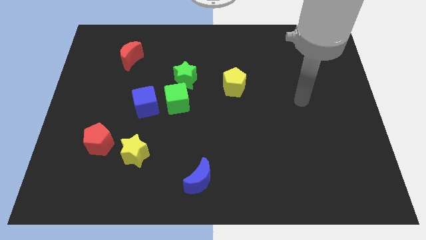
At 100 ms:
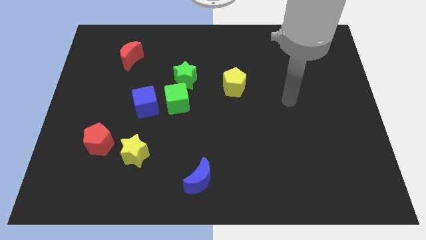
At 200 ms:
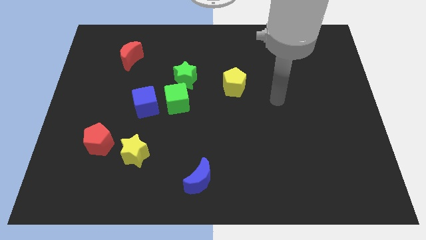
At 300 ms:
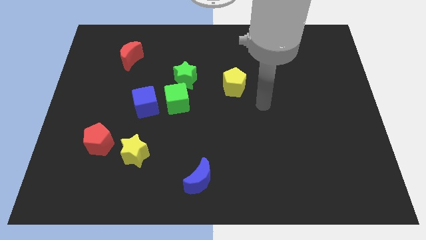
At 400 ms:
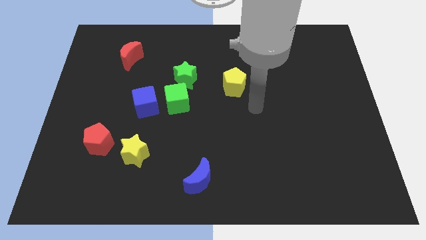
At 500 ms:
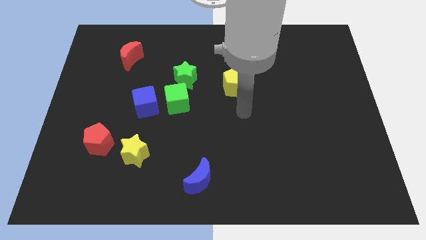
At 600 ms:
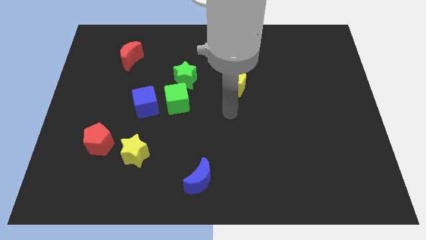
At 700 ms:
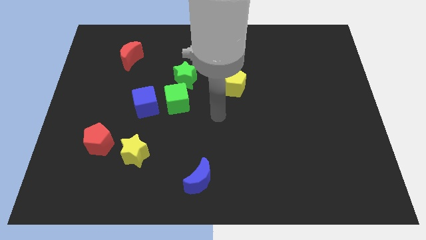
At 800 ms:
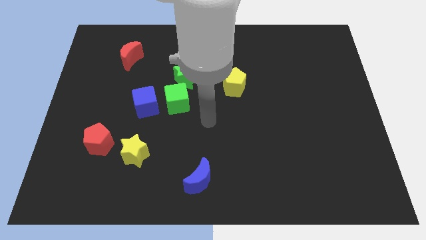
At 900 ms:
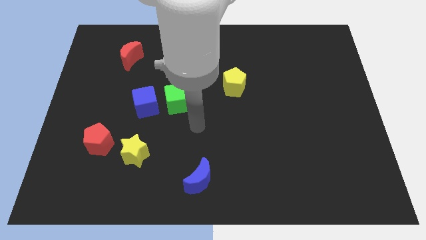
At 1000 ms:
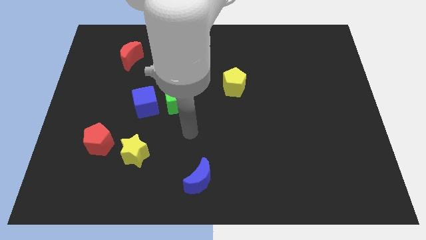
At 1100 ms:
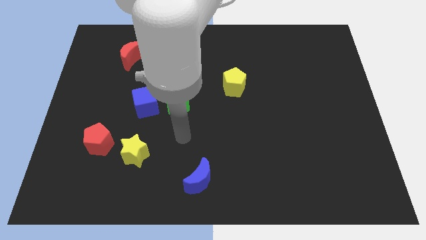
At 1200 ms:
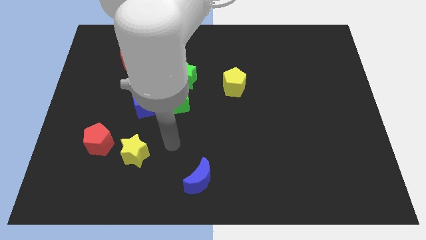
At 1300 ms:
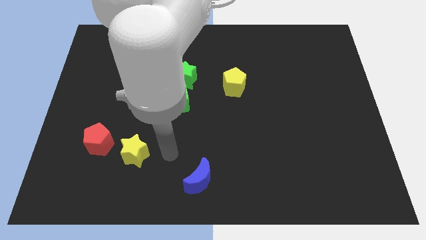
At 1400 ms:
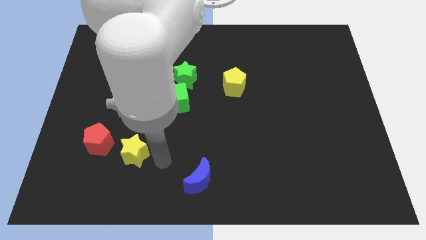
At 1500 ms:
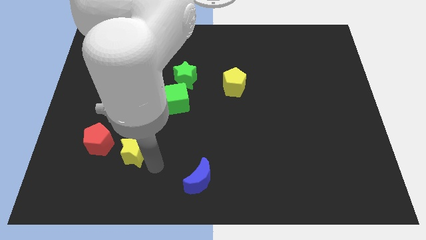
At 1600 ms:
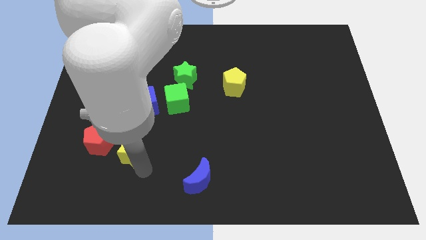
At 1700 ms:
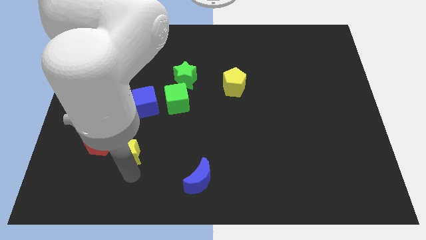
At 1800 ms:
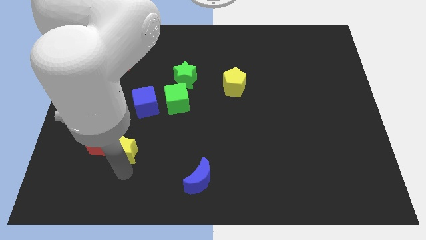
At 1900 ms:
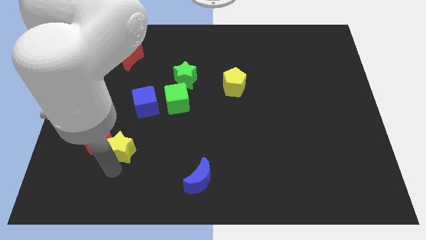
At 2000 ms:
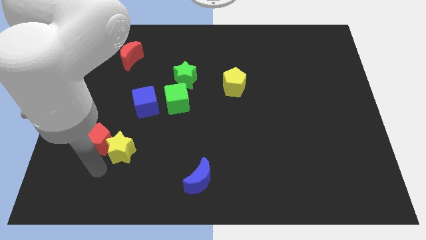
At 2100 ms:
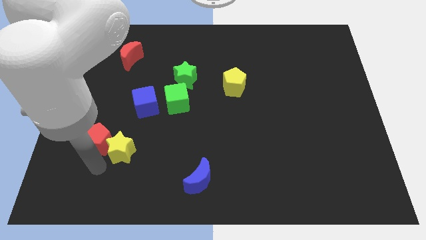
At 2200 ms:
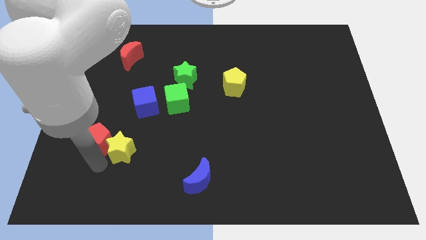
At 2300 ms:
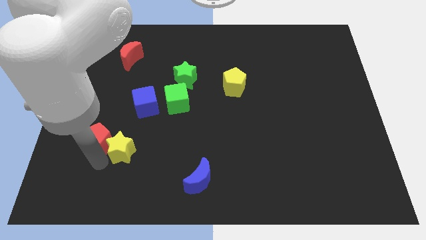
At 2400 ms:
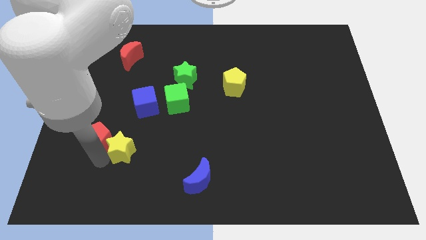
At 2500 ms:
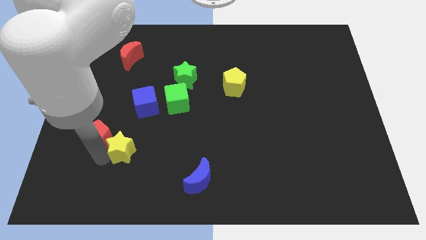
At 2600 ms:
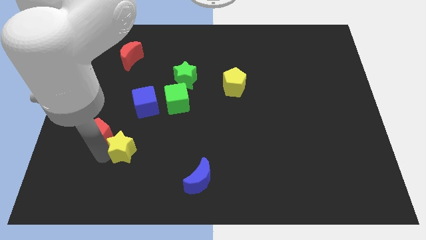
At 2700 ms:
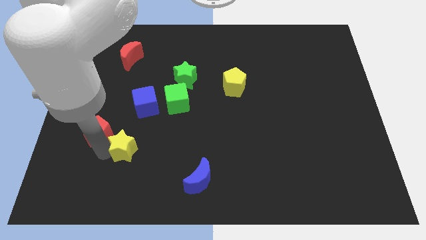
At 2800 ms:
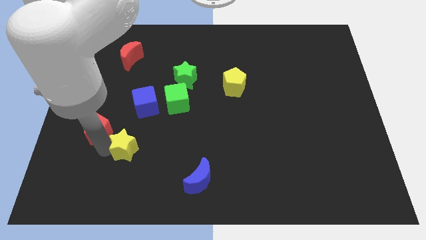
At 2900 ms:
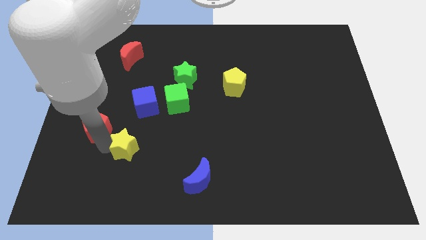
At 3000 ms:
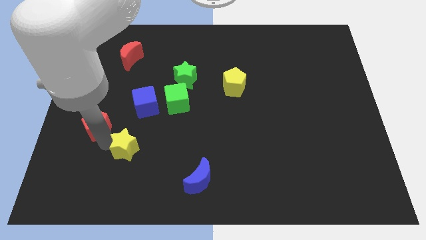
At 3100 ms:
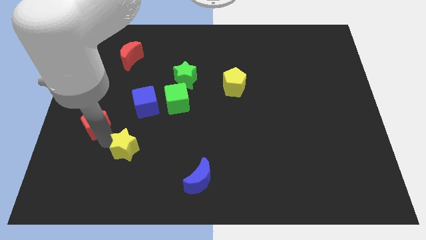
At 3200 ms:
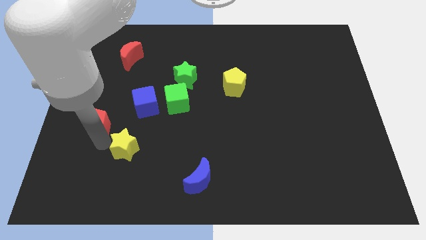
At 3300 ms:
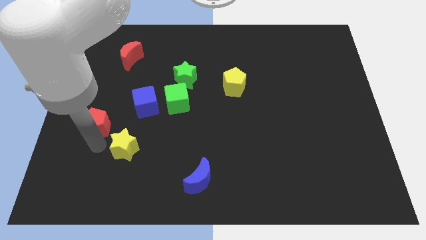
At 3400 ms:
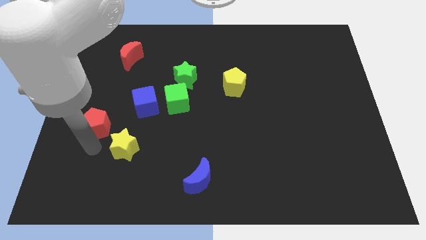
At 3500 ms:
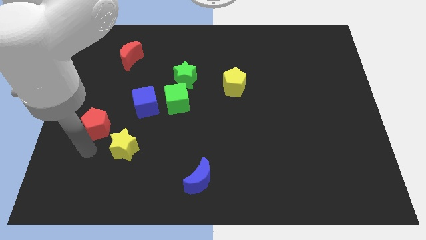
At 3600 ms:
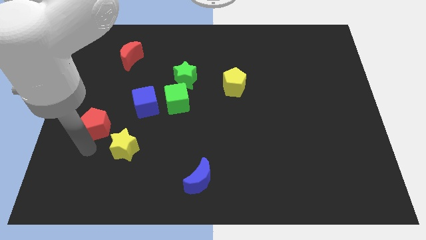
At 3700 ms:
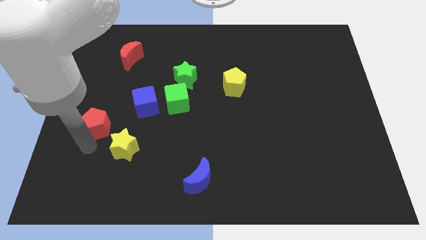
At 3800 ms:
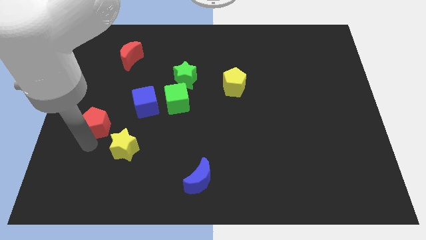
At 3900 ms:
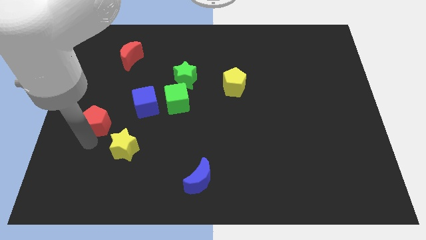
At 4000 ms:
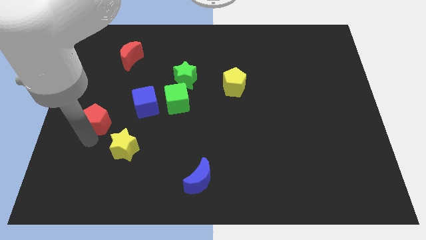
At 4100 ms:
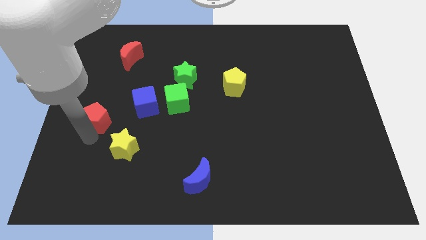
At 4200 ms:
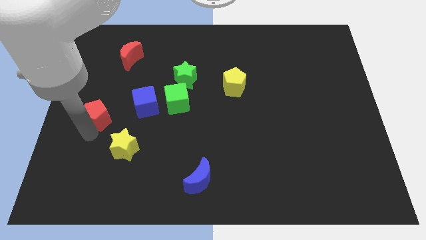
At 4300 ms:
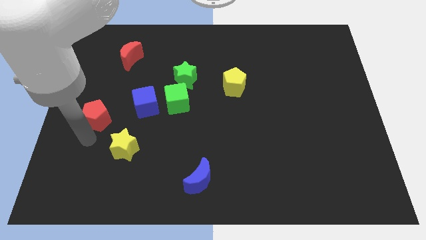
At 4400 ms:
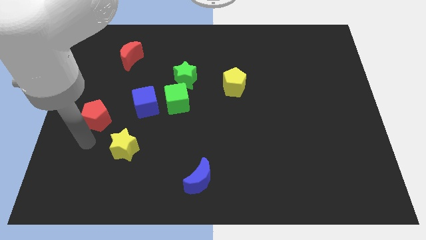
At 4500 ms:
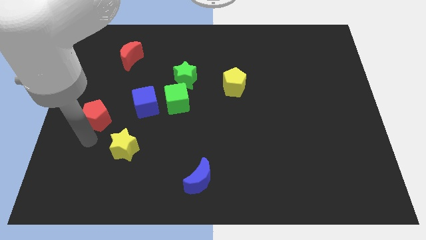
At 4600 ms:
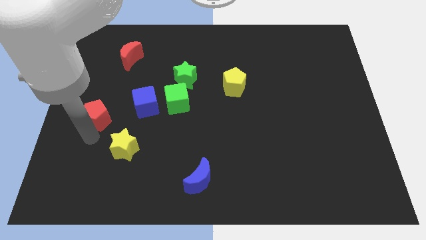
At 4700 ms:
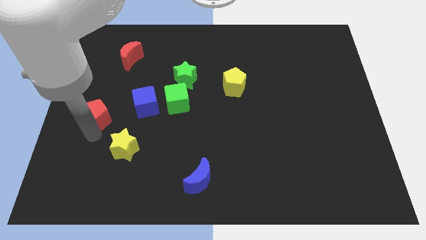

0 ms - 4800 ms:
move the red pentagon up slightly

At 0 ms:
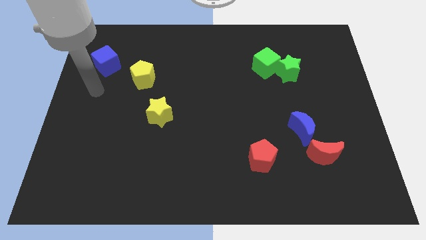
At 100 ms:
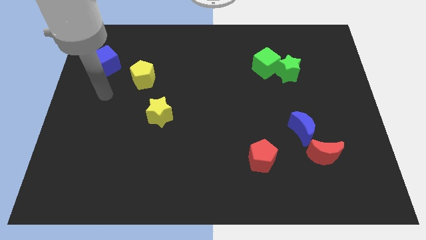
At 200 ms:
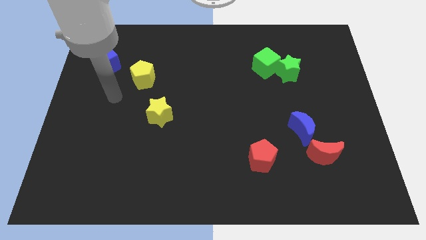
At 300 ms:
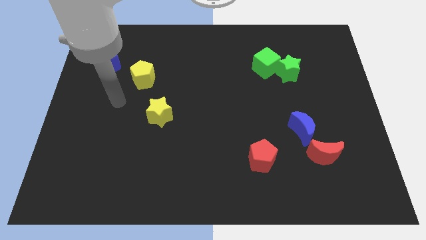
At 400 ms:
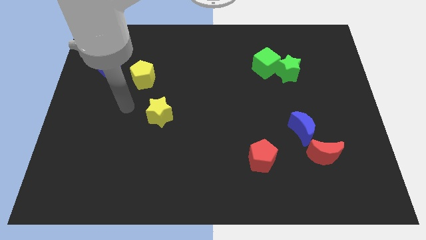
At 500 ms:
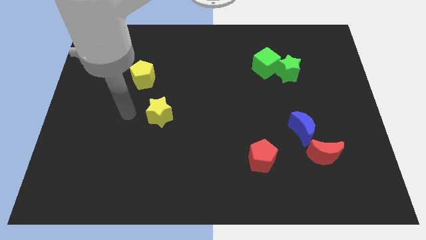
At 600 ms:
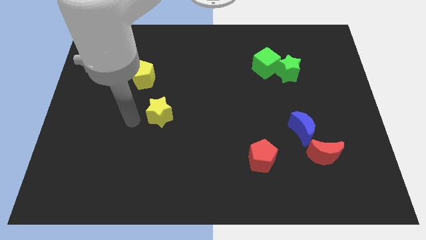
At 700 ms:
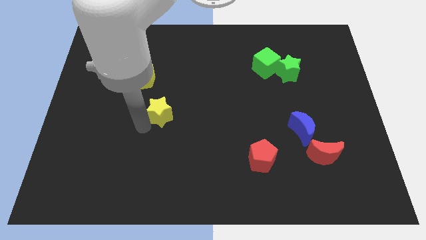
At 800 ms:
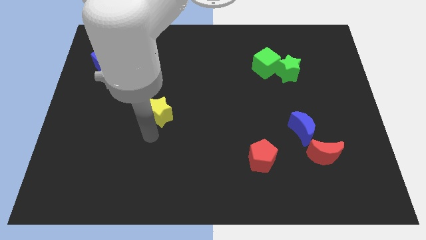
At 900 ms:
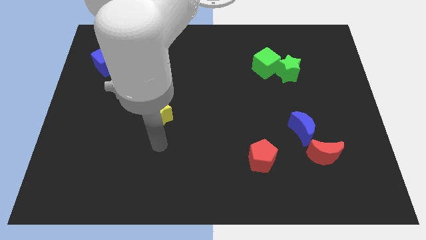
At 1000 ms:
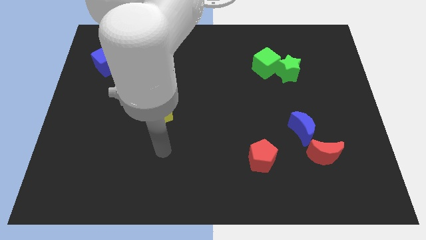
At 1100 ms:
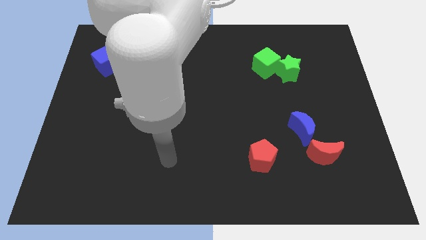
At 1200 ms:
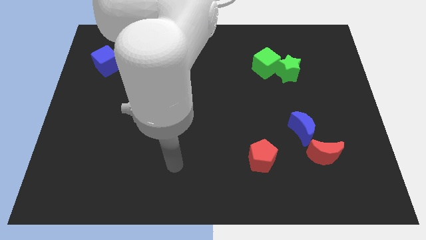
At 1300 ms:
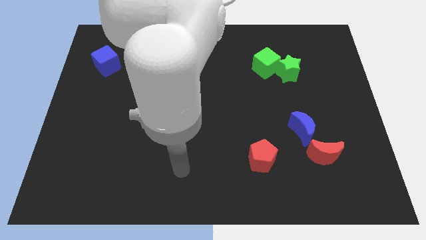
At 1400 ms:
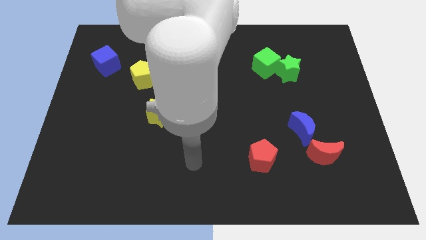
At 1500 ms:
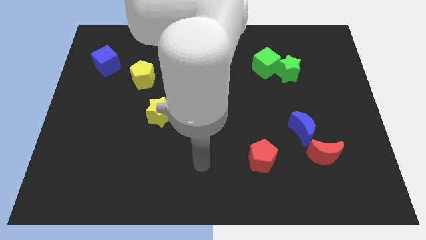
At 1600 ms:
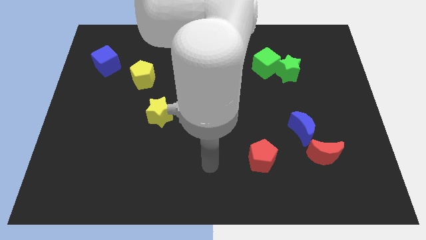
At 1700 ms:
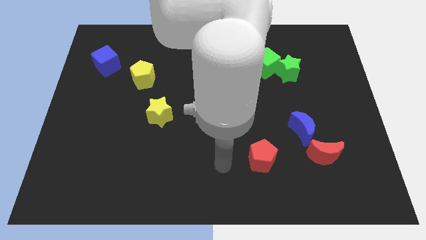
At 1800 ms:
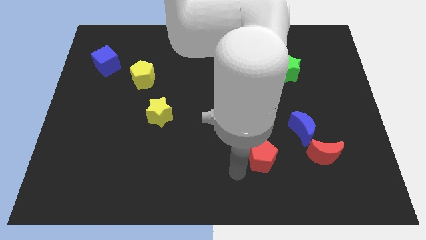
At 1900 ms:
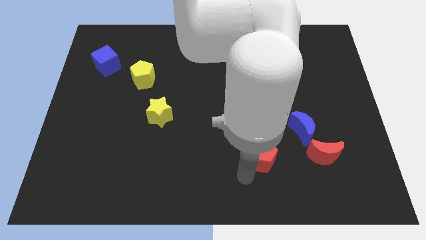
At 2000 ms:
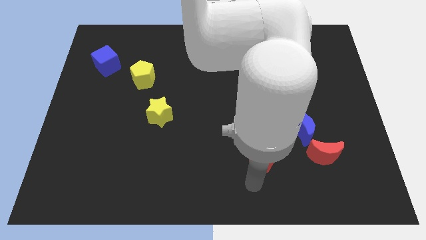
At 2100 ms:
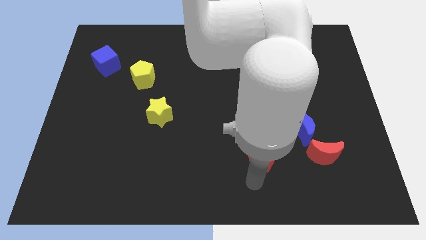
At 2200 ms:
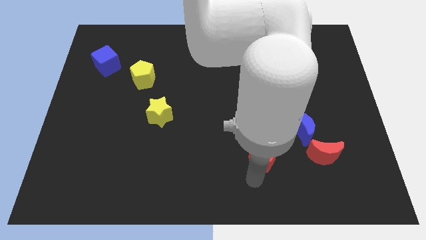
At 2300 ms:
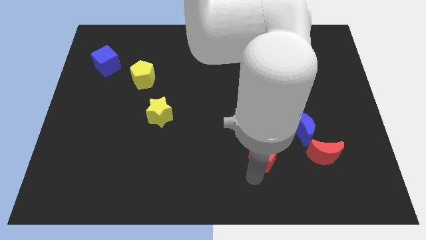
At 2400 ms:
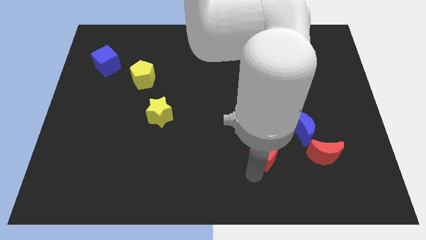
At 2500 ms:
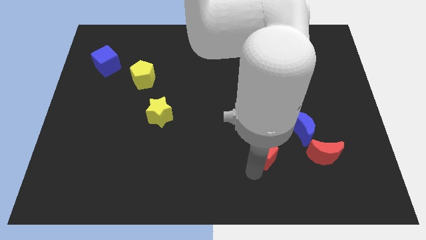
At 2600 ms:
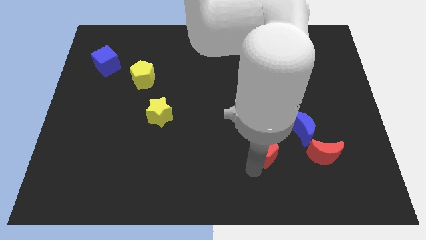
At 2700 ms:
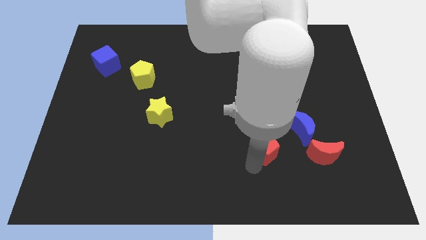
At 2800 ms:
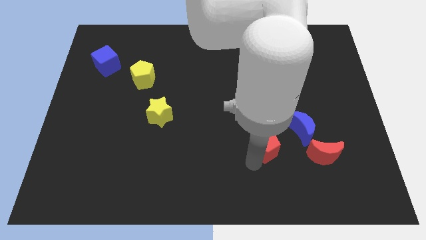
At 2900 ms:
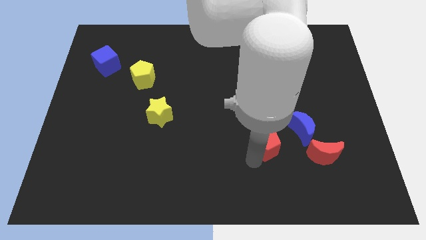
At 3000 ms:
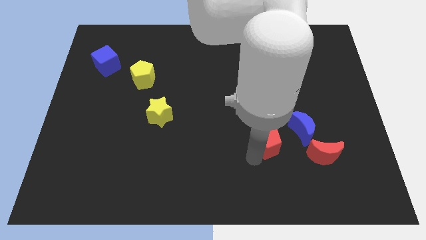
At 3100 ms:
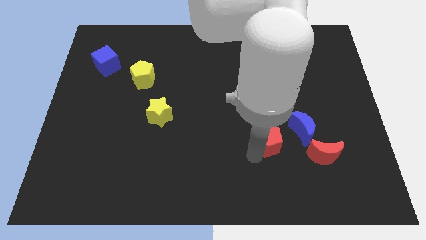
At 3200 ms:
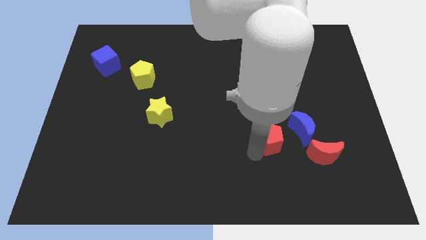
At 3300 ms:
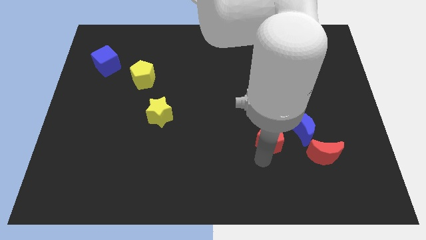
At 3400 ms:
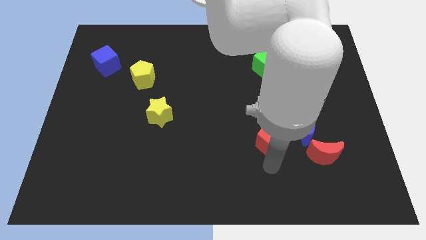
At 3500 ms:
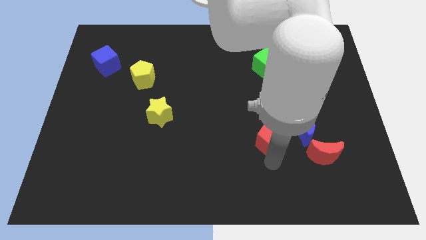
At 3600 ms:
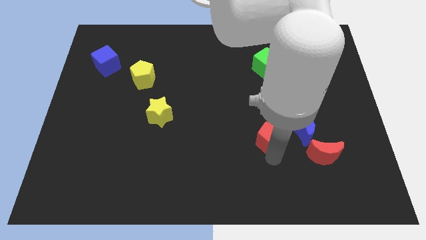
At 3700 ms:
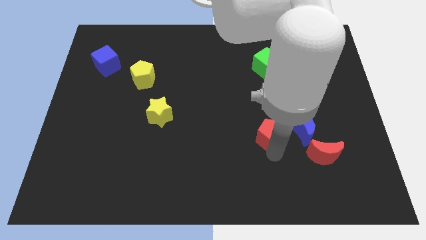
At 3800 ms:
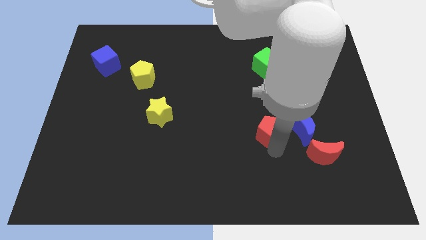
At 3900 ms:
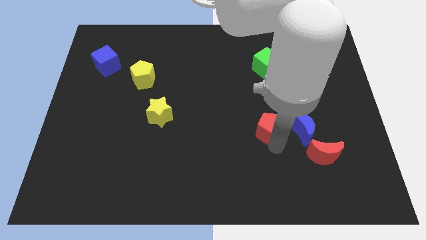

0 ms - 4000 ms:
slightly push the red pentagon upwards

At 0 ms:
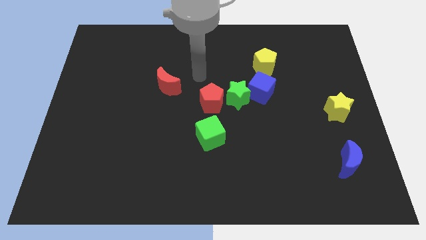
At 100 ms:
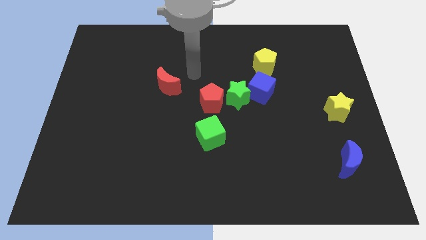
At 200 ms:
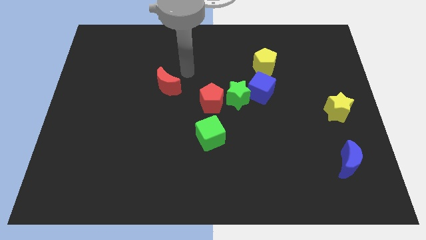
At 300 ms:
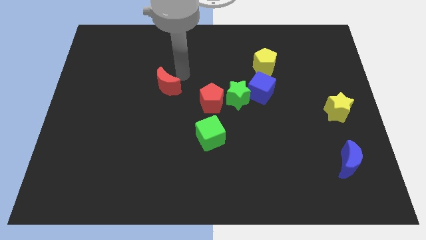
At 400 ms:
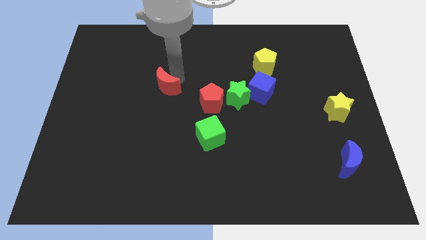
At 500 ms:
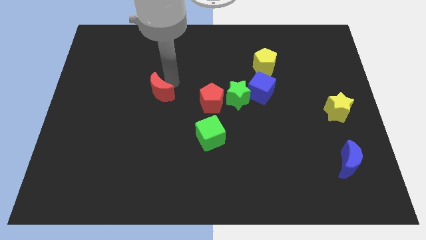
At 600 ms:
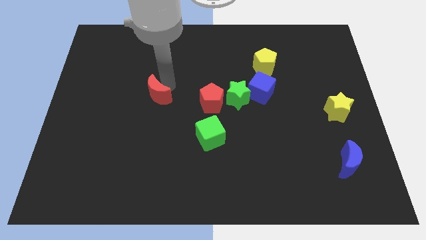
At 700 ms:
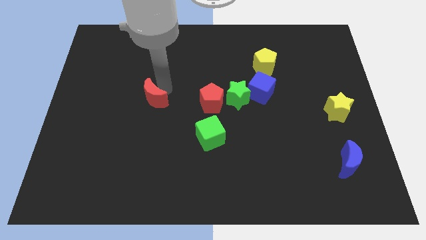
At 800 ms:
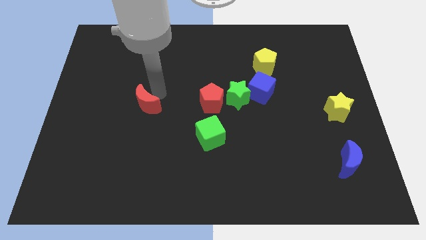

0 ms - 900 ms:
push the red moon down and then to the left a little
